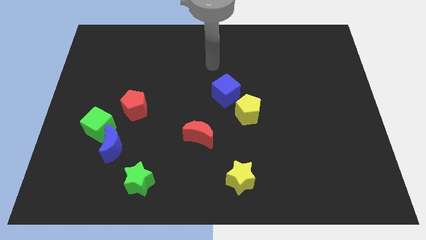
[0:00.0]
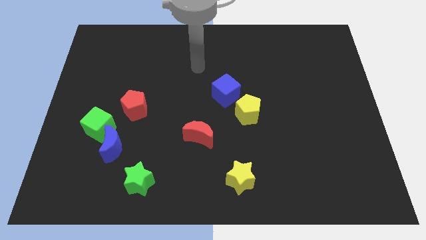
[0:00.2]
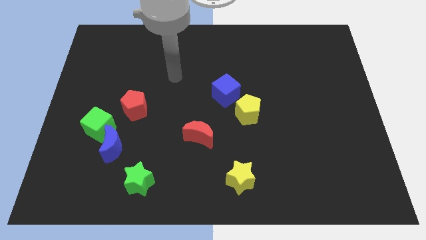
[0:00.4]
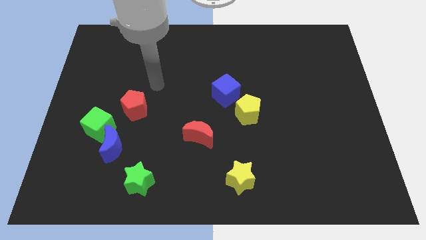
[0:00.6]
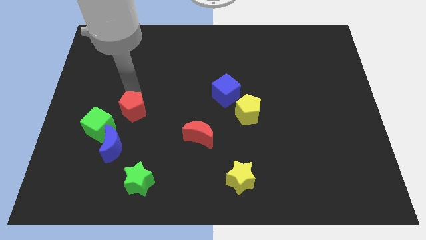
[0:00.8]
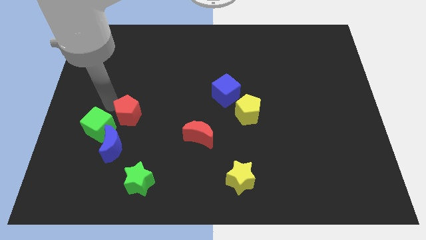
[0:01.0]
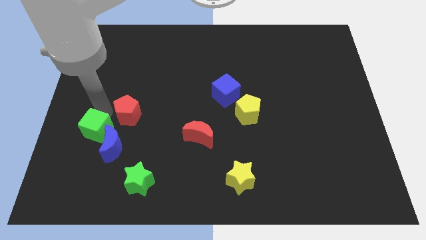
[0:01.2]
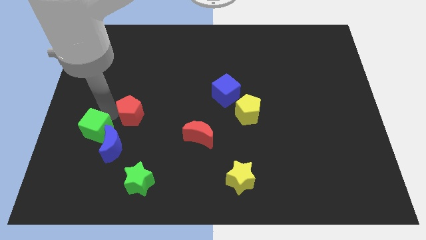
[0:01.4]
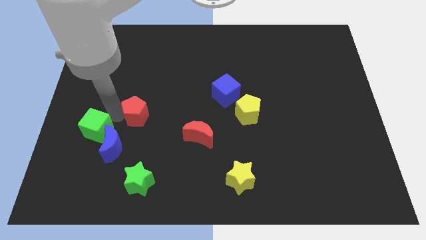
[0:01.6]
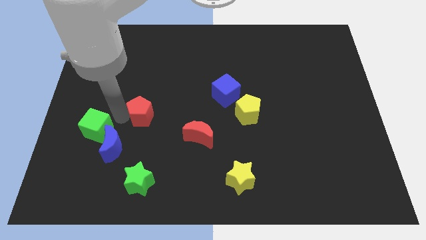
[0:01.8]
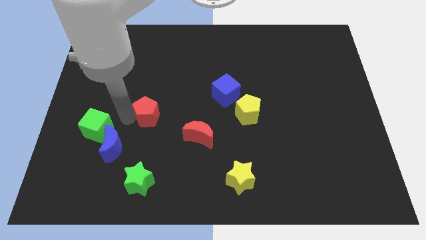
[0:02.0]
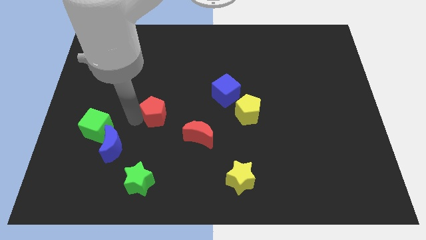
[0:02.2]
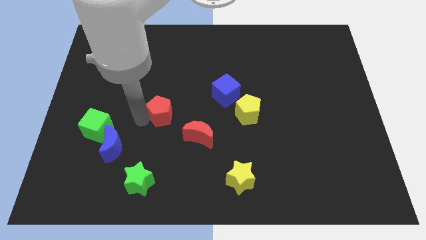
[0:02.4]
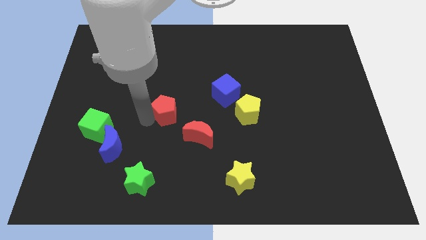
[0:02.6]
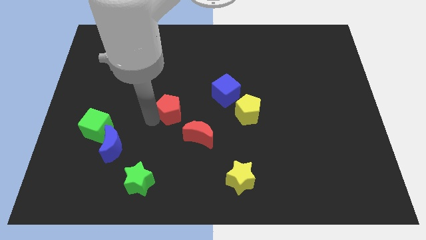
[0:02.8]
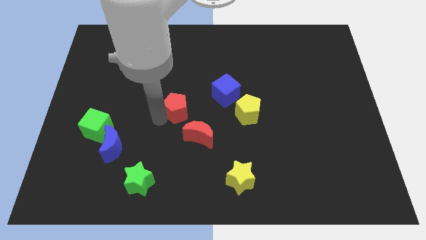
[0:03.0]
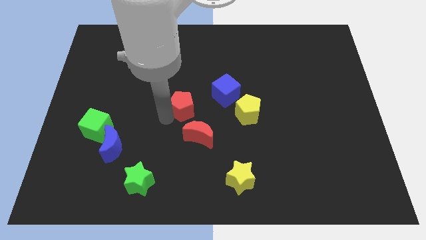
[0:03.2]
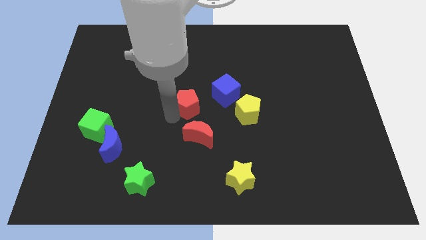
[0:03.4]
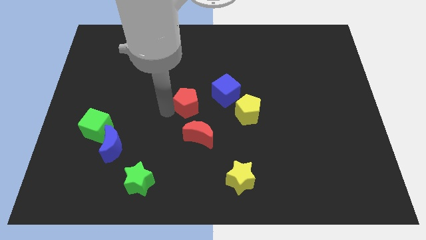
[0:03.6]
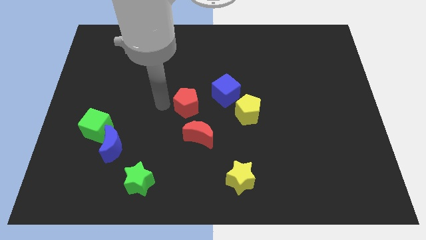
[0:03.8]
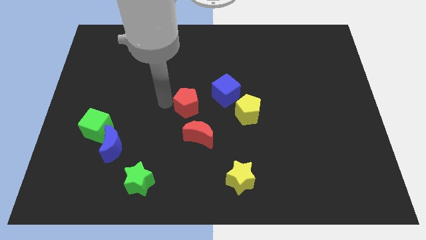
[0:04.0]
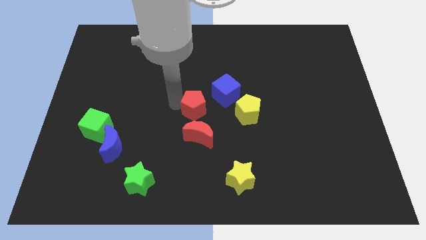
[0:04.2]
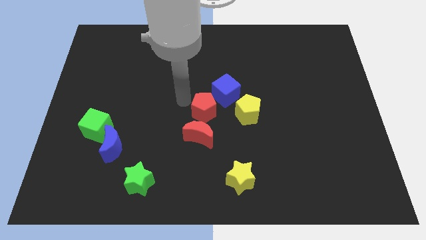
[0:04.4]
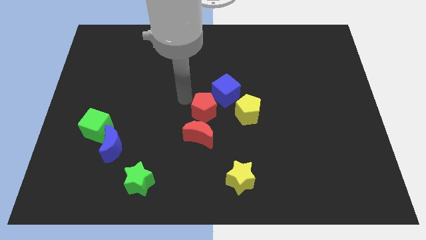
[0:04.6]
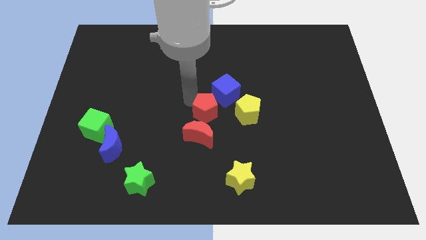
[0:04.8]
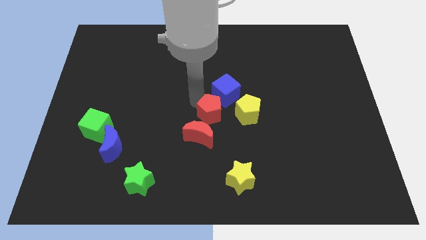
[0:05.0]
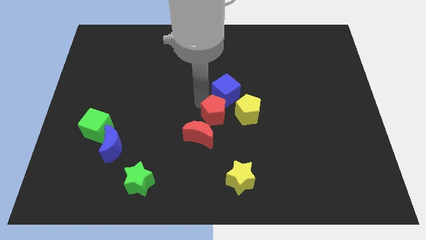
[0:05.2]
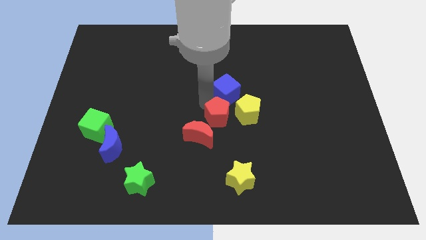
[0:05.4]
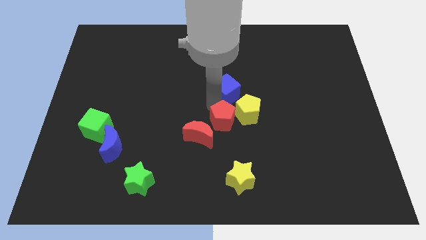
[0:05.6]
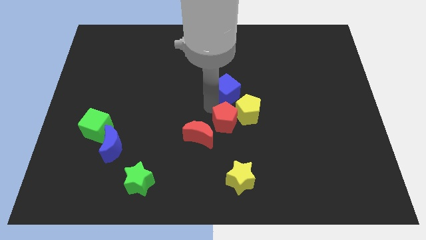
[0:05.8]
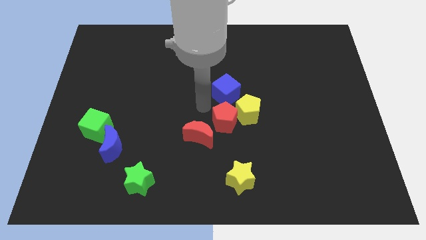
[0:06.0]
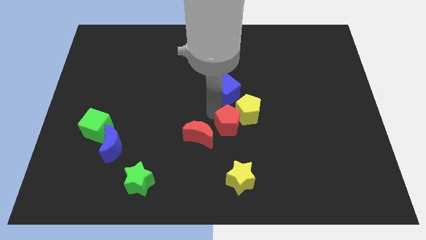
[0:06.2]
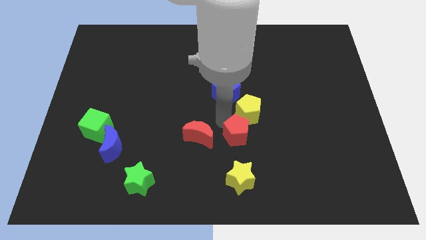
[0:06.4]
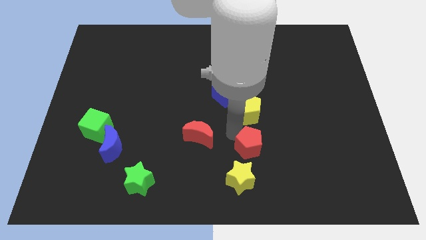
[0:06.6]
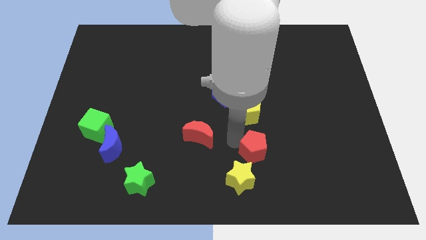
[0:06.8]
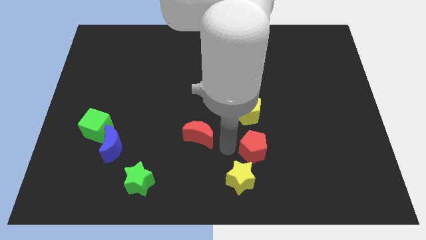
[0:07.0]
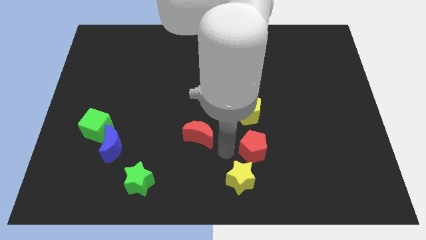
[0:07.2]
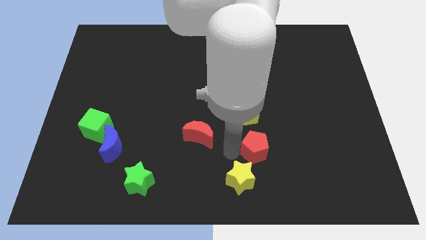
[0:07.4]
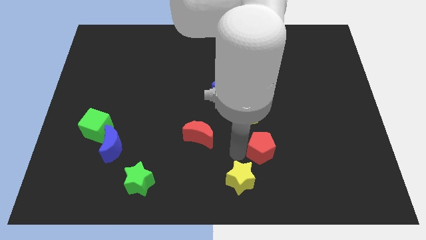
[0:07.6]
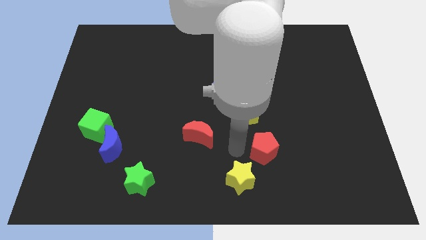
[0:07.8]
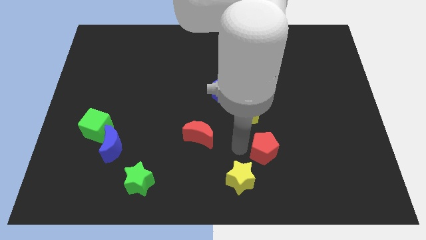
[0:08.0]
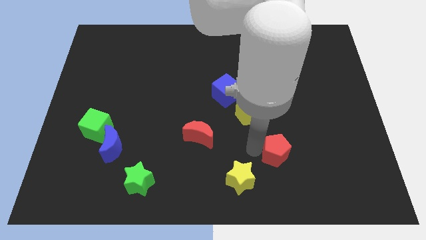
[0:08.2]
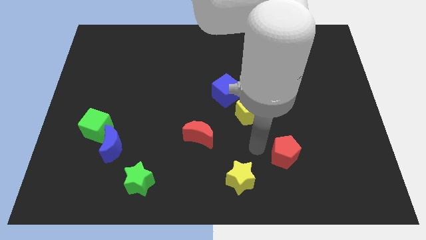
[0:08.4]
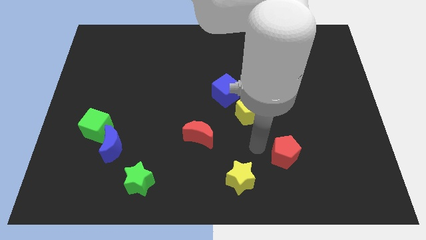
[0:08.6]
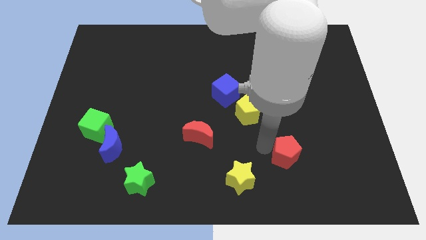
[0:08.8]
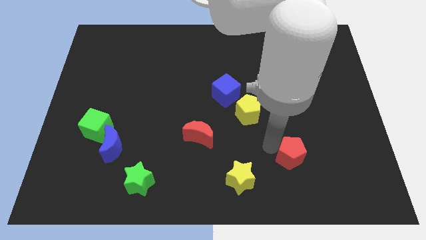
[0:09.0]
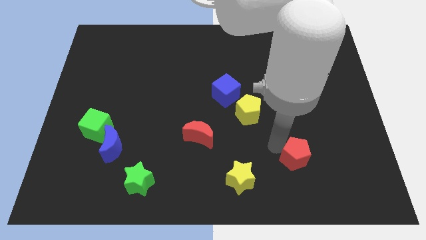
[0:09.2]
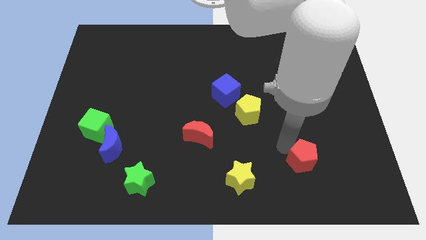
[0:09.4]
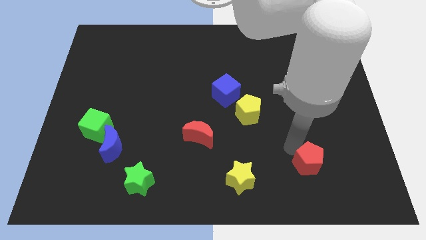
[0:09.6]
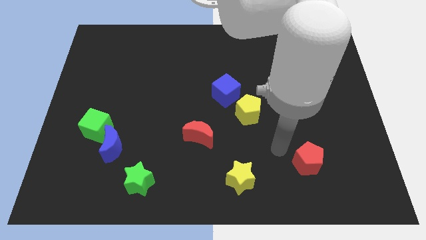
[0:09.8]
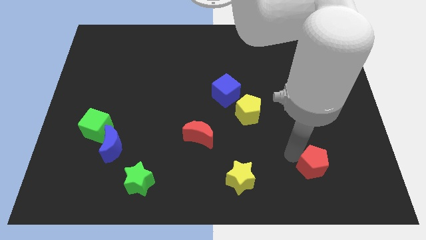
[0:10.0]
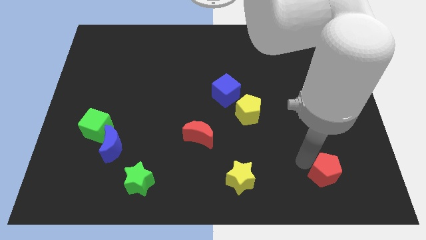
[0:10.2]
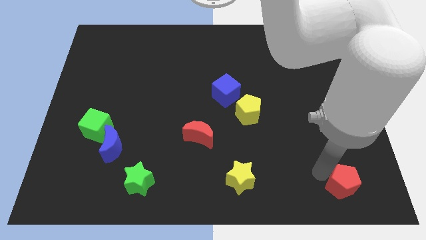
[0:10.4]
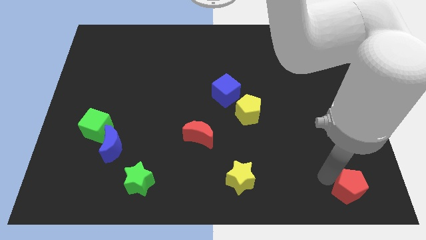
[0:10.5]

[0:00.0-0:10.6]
move the red pentagon to the lower right corner

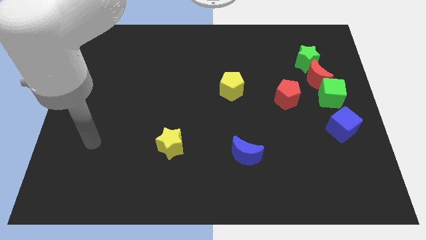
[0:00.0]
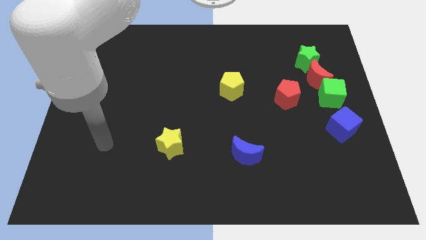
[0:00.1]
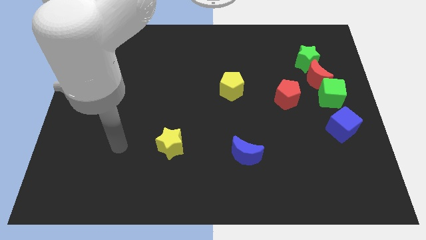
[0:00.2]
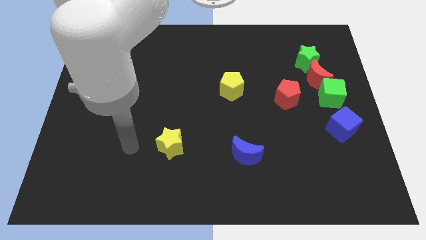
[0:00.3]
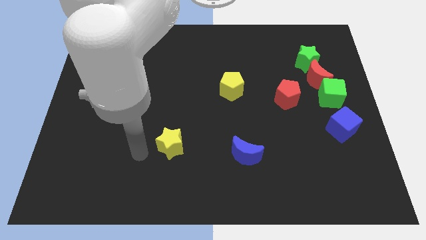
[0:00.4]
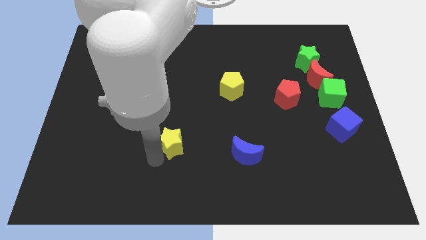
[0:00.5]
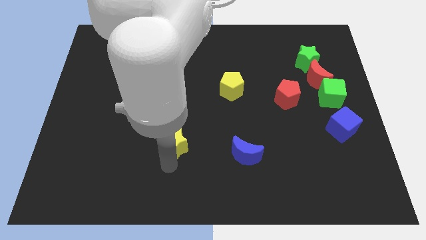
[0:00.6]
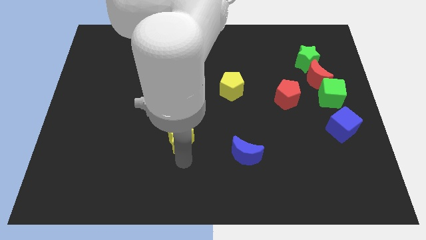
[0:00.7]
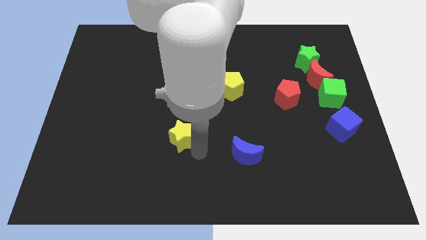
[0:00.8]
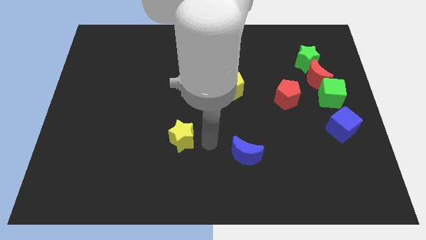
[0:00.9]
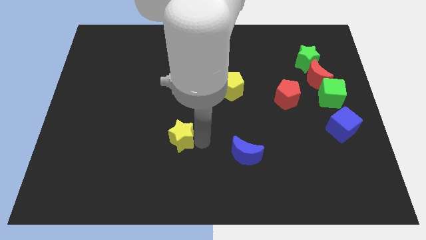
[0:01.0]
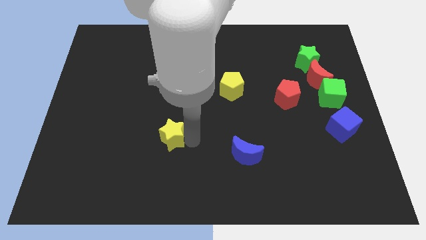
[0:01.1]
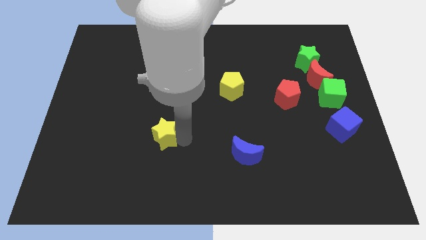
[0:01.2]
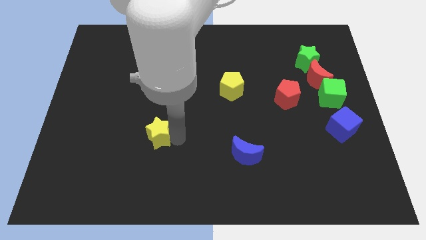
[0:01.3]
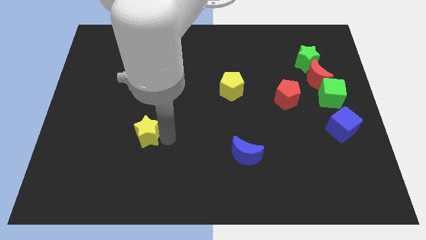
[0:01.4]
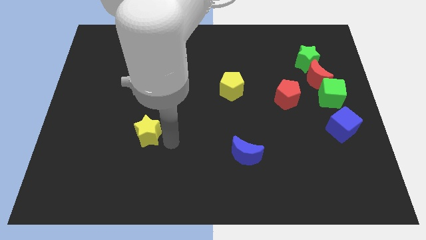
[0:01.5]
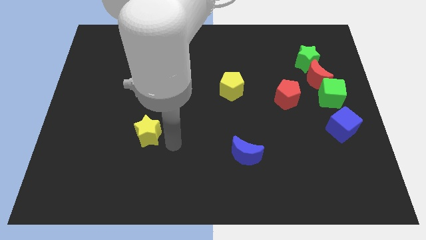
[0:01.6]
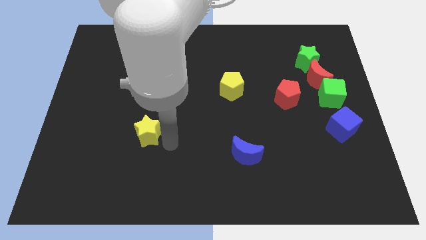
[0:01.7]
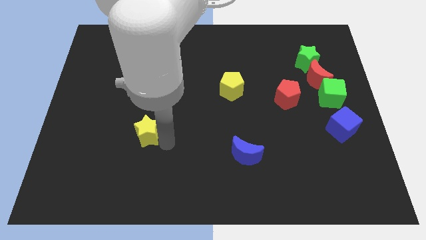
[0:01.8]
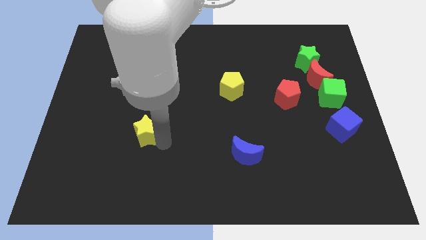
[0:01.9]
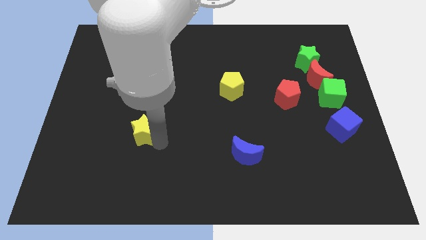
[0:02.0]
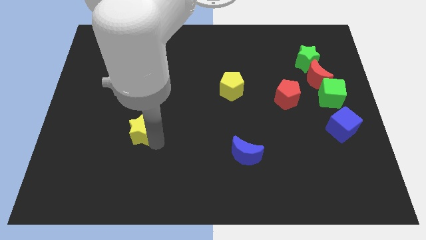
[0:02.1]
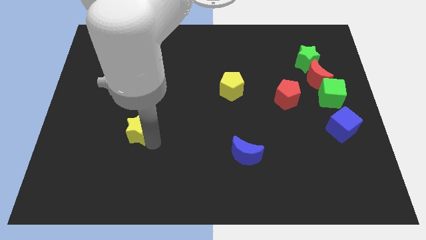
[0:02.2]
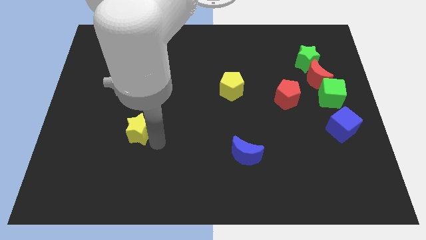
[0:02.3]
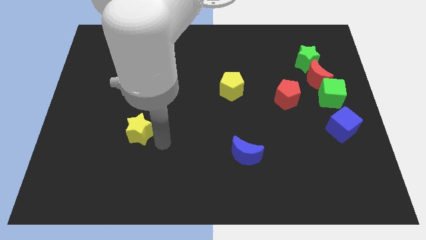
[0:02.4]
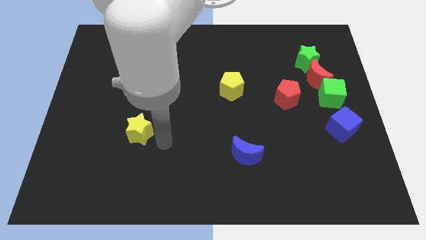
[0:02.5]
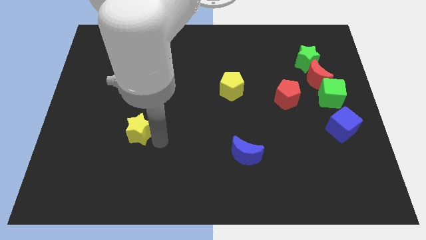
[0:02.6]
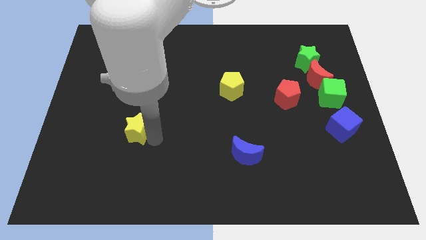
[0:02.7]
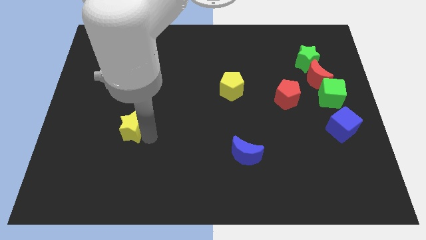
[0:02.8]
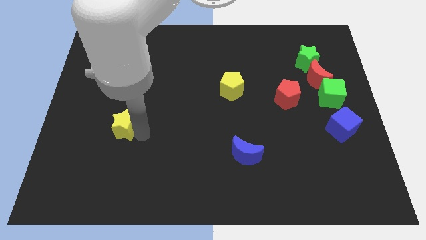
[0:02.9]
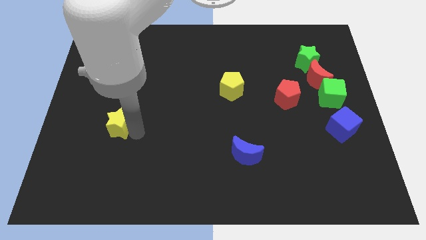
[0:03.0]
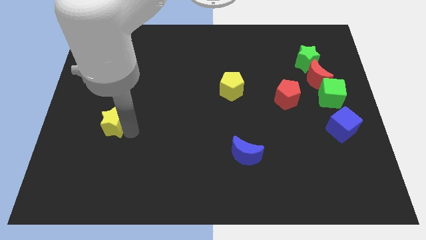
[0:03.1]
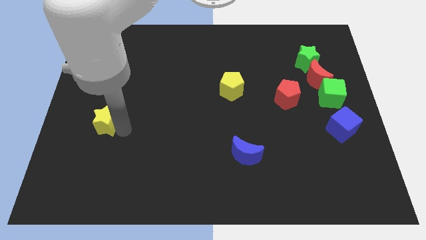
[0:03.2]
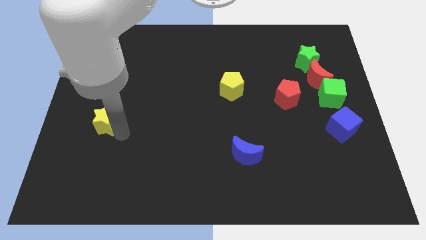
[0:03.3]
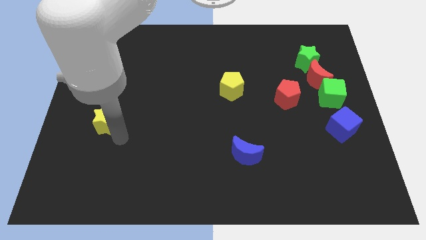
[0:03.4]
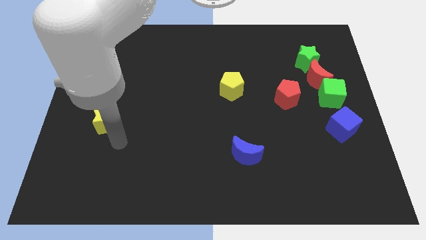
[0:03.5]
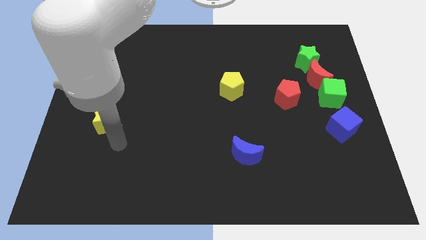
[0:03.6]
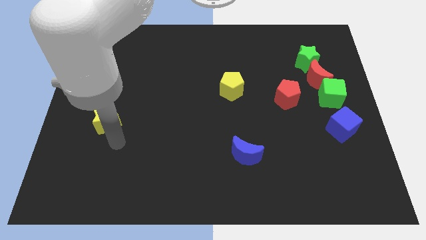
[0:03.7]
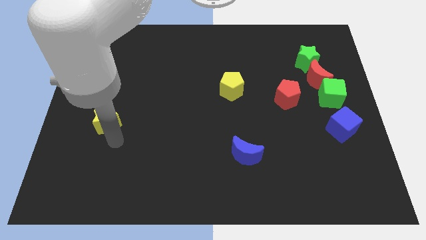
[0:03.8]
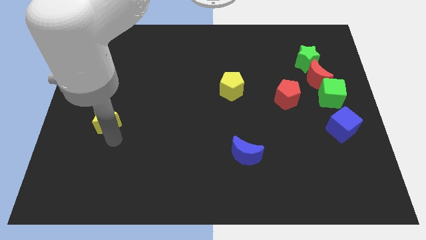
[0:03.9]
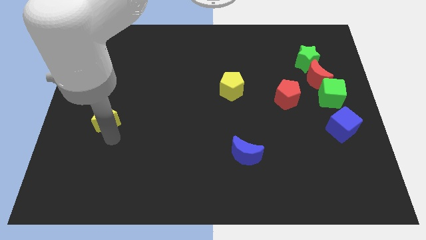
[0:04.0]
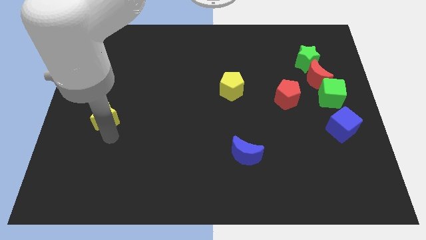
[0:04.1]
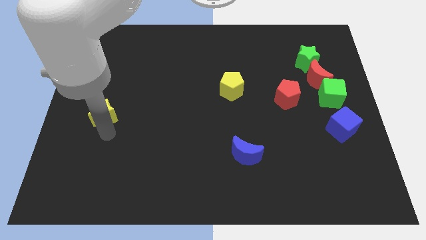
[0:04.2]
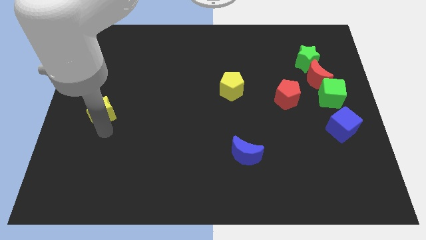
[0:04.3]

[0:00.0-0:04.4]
move the yellow star to the left side
